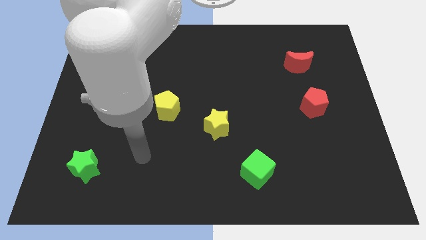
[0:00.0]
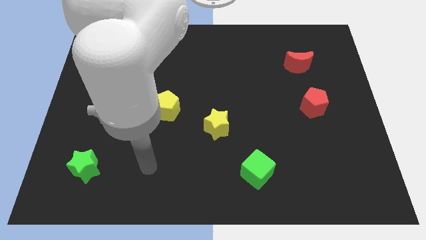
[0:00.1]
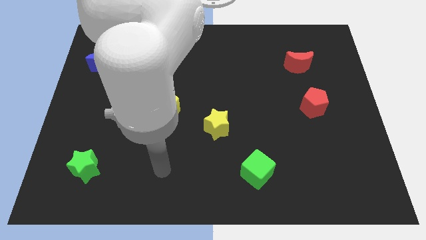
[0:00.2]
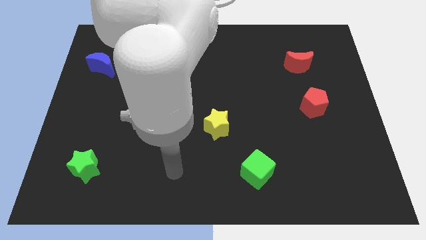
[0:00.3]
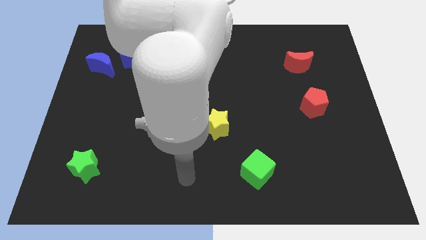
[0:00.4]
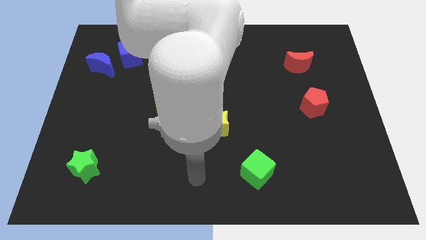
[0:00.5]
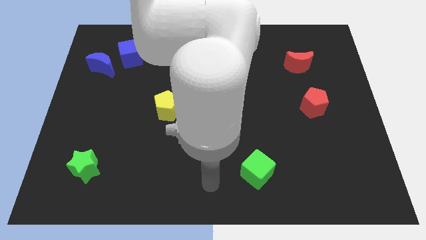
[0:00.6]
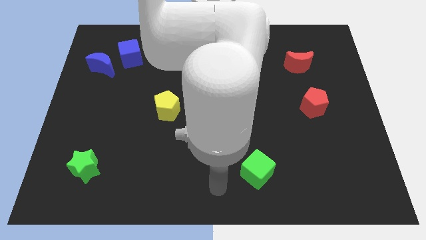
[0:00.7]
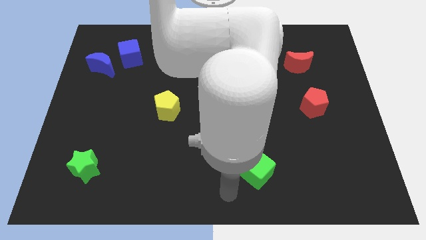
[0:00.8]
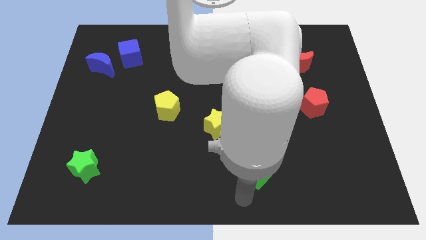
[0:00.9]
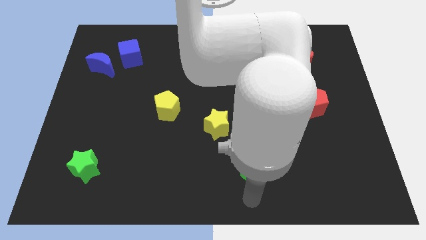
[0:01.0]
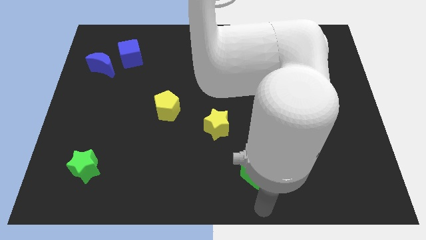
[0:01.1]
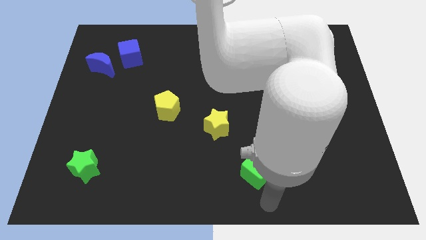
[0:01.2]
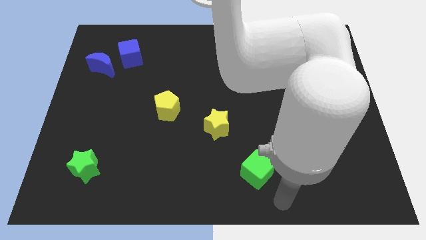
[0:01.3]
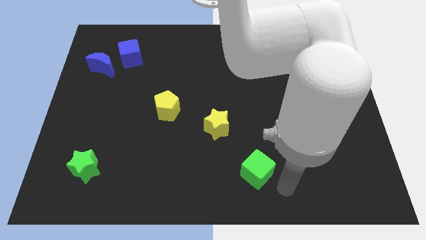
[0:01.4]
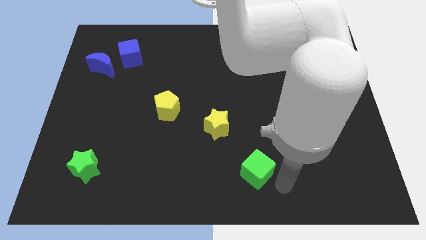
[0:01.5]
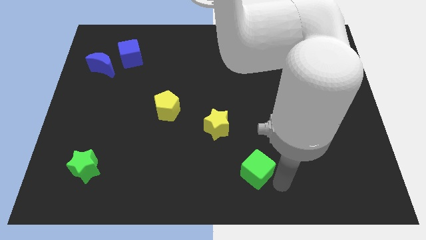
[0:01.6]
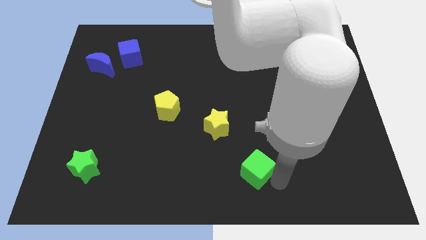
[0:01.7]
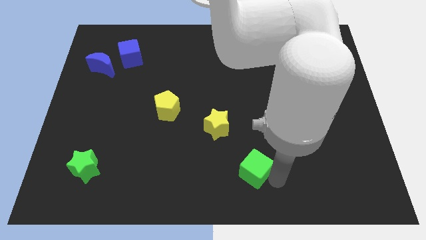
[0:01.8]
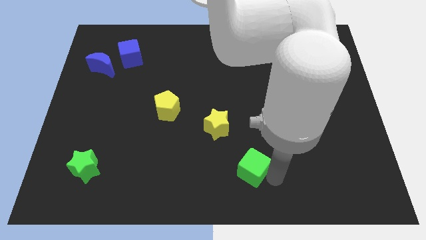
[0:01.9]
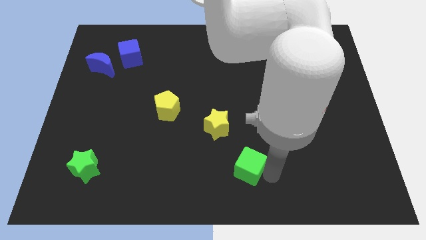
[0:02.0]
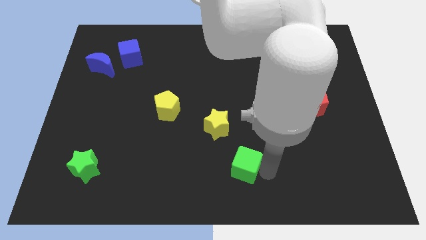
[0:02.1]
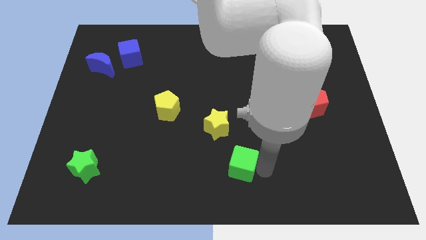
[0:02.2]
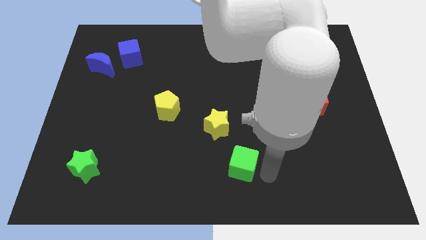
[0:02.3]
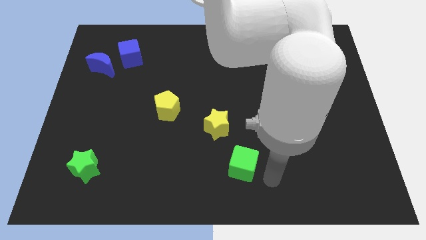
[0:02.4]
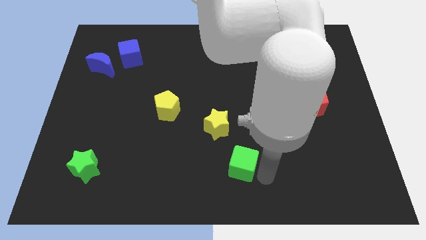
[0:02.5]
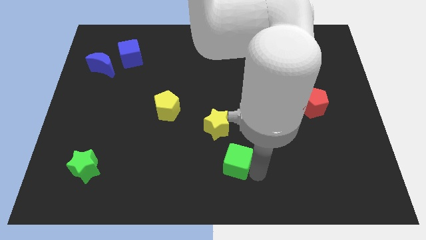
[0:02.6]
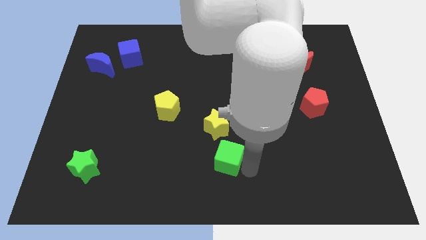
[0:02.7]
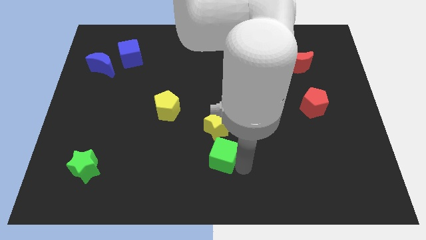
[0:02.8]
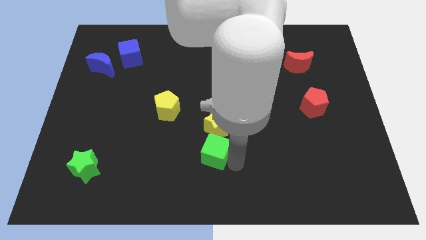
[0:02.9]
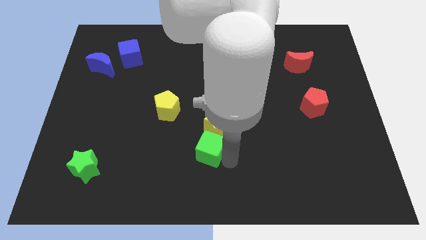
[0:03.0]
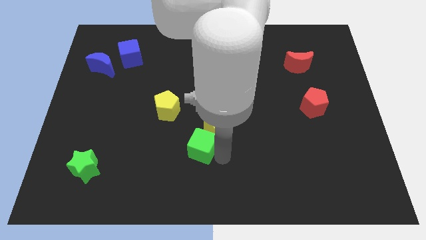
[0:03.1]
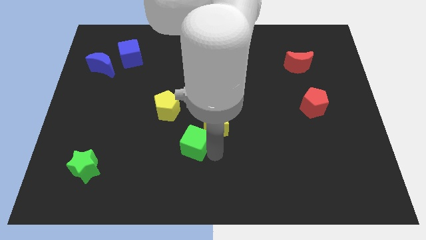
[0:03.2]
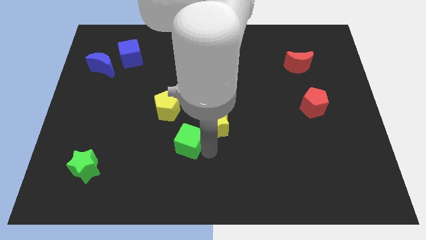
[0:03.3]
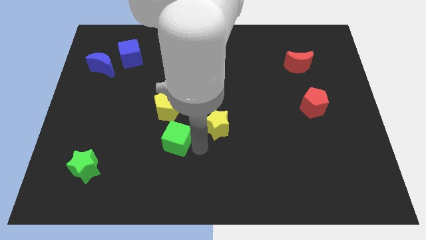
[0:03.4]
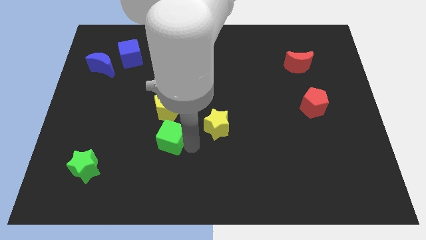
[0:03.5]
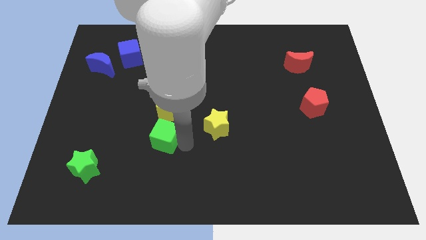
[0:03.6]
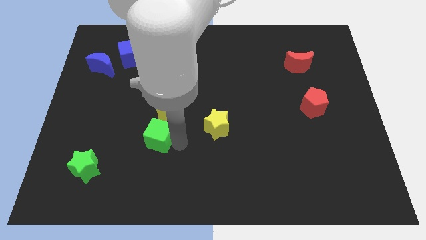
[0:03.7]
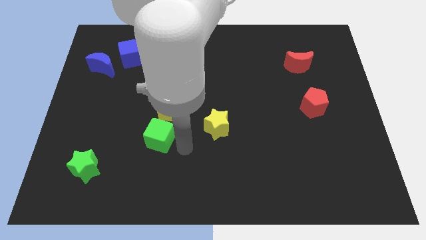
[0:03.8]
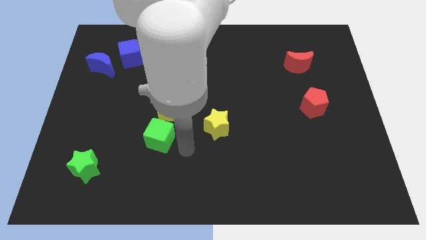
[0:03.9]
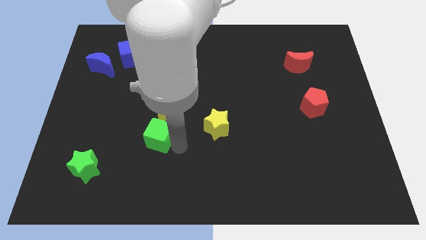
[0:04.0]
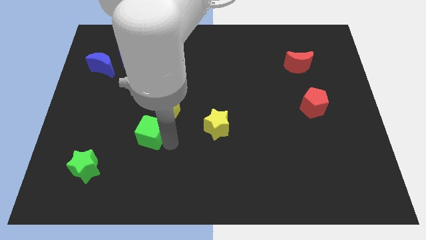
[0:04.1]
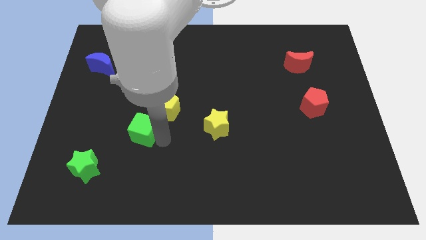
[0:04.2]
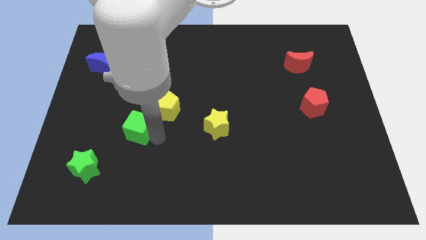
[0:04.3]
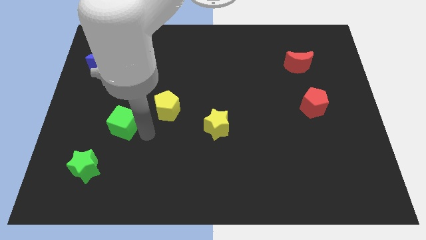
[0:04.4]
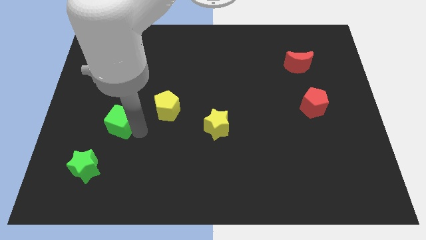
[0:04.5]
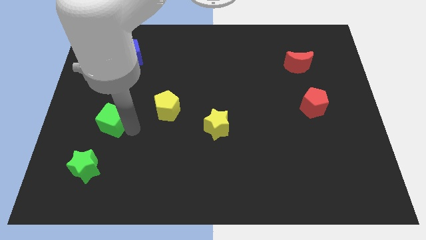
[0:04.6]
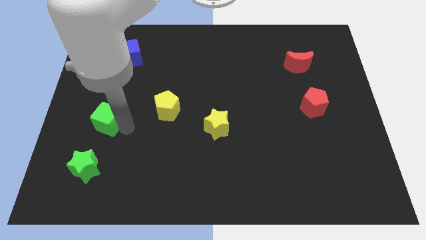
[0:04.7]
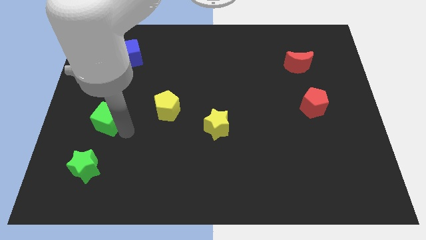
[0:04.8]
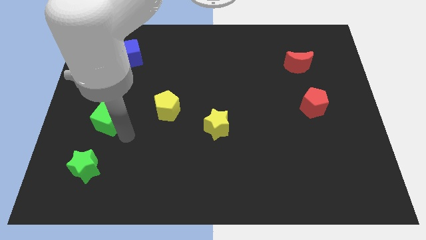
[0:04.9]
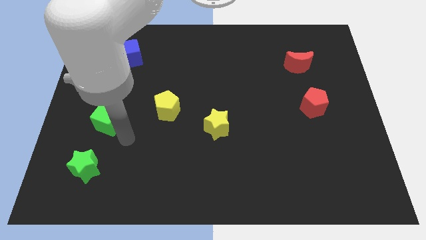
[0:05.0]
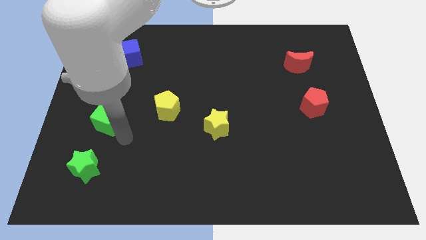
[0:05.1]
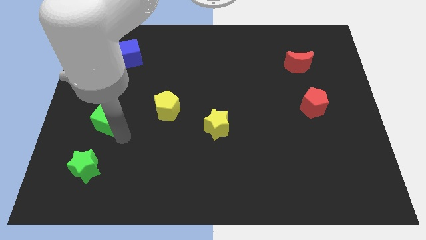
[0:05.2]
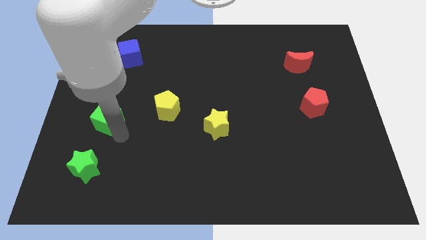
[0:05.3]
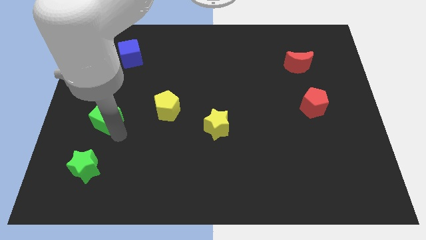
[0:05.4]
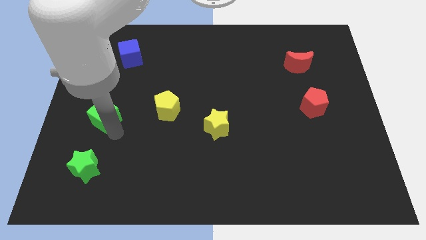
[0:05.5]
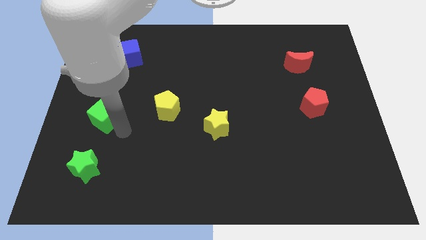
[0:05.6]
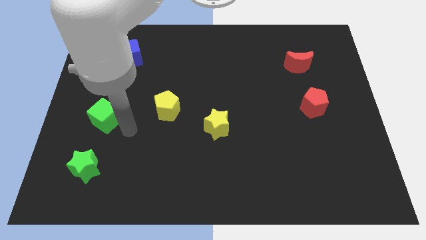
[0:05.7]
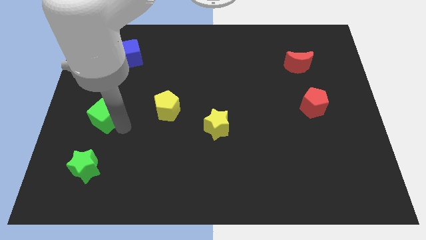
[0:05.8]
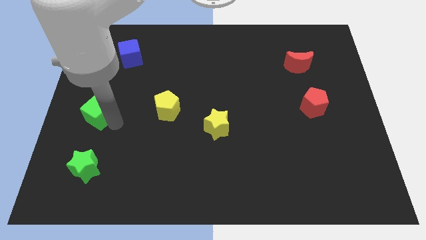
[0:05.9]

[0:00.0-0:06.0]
put the green cube to the center left

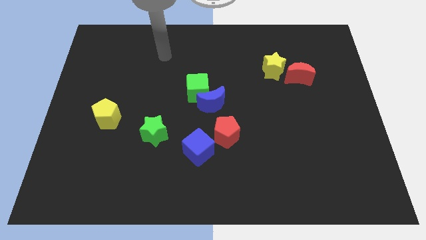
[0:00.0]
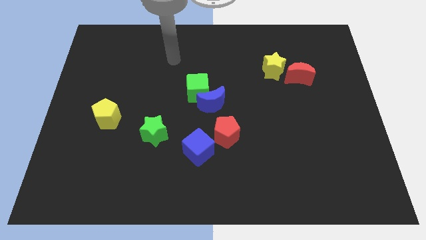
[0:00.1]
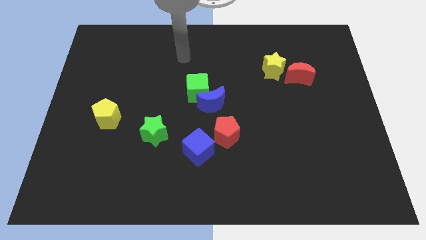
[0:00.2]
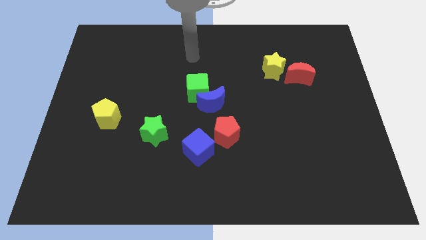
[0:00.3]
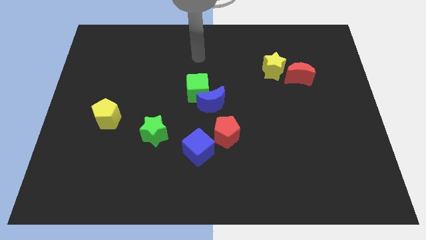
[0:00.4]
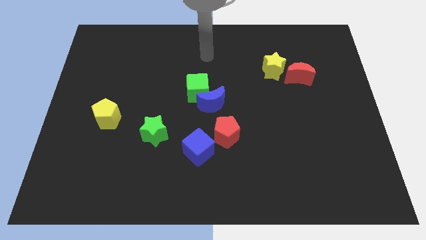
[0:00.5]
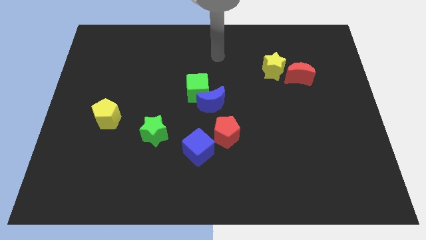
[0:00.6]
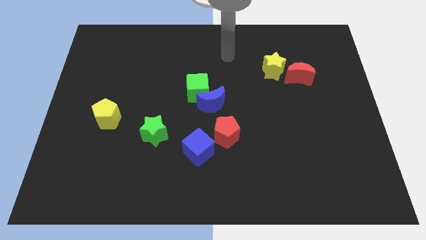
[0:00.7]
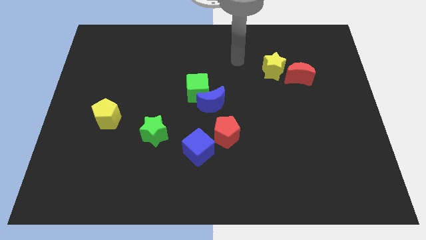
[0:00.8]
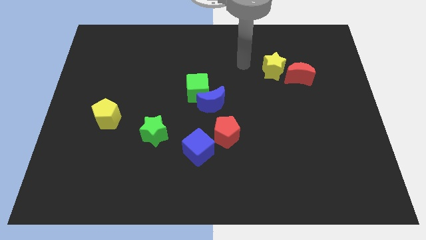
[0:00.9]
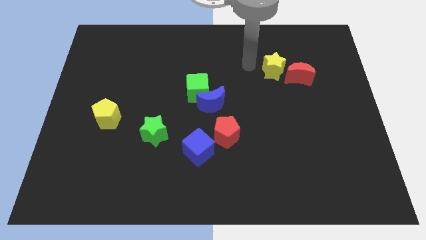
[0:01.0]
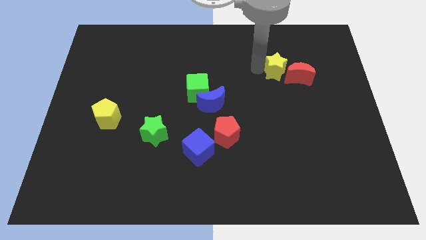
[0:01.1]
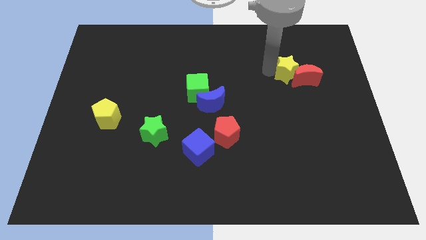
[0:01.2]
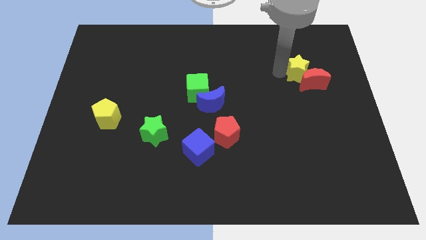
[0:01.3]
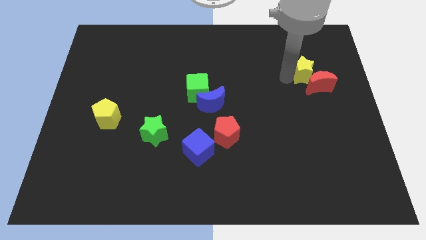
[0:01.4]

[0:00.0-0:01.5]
put the red moon to the right side
